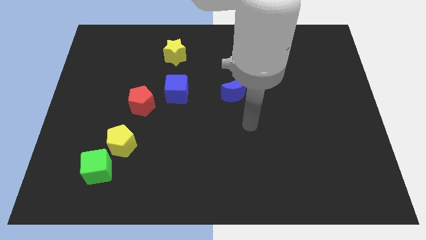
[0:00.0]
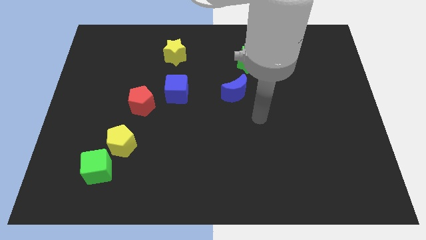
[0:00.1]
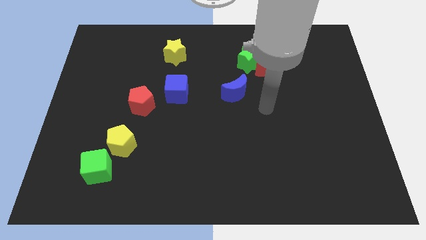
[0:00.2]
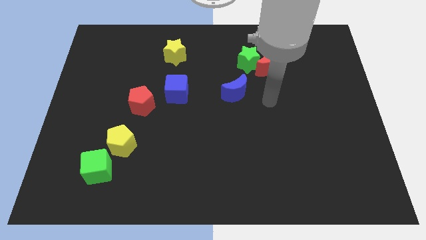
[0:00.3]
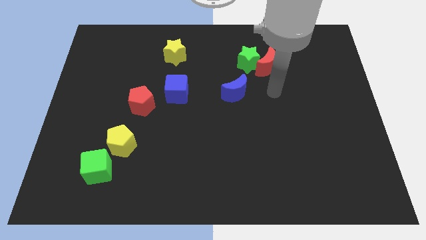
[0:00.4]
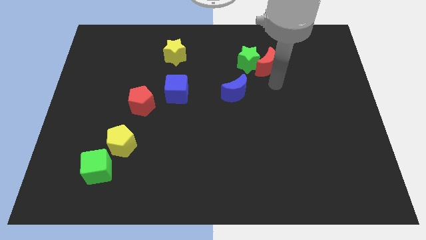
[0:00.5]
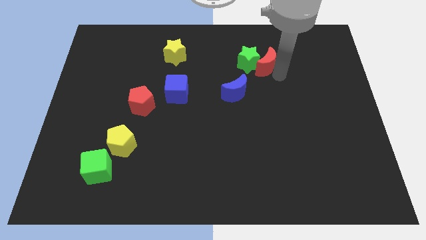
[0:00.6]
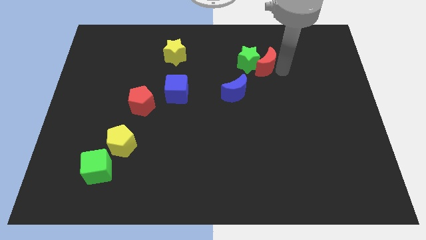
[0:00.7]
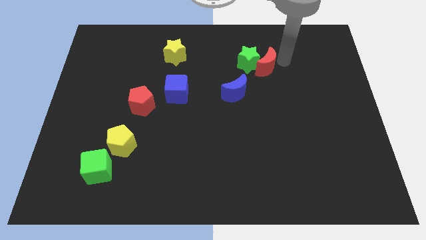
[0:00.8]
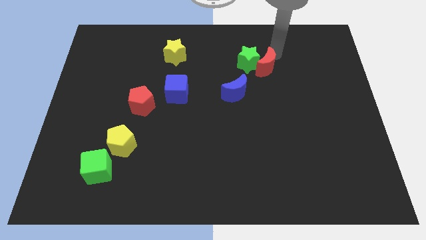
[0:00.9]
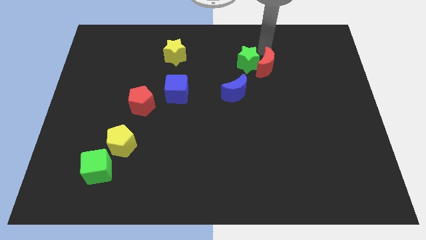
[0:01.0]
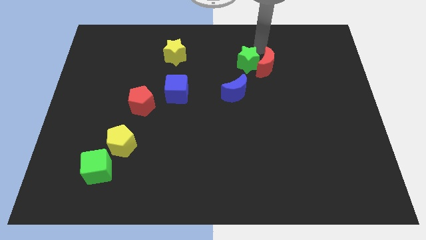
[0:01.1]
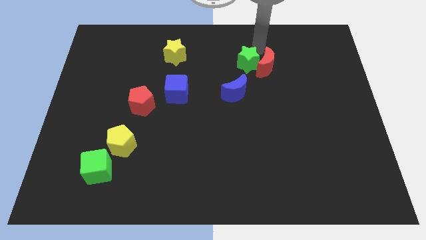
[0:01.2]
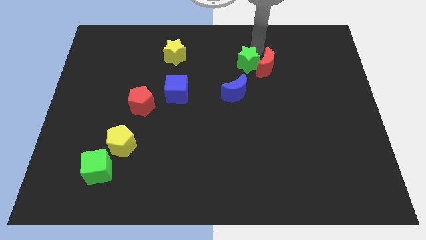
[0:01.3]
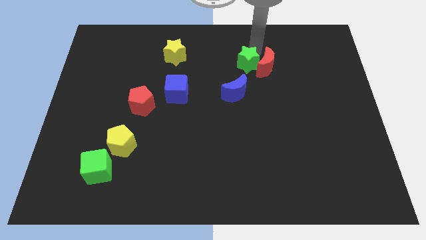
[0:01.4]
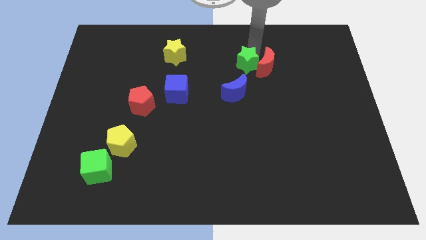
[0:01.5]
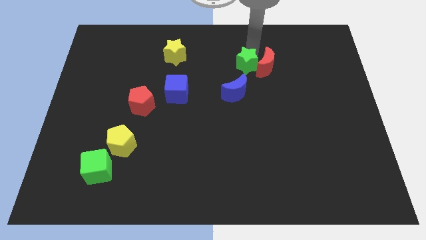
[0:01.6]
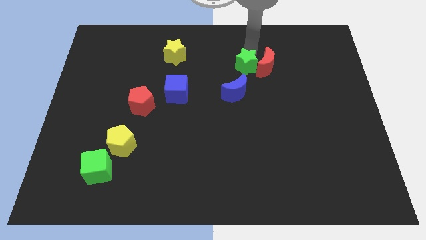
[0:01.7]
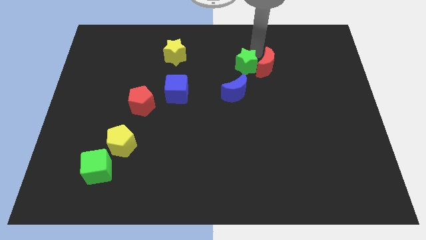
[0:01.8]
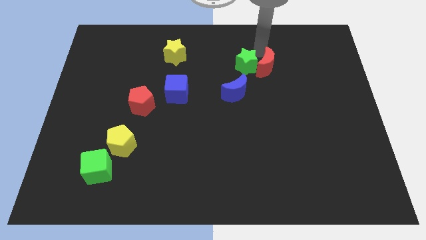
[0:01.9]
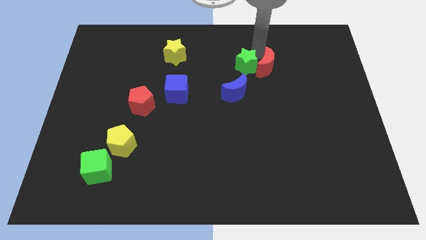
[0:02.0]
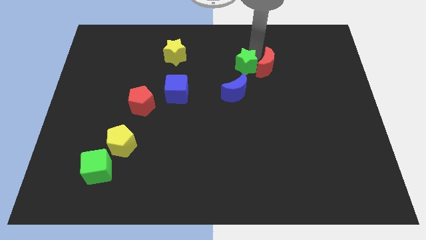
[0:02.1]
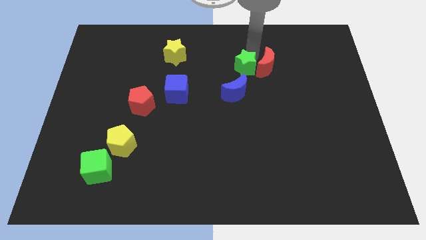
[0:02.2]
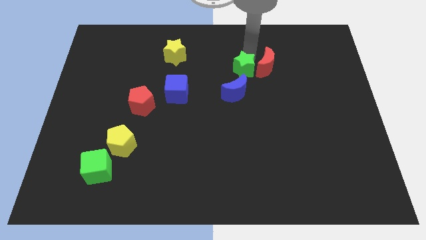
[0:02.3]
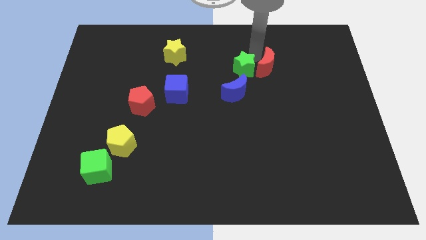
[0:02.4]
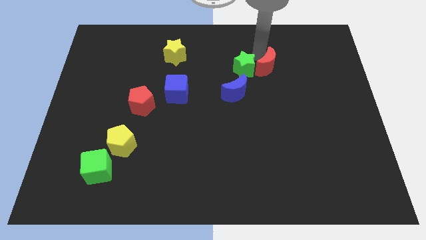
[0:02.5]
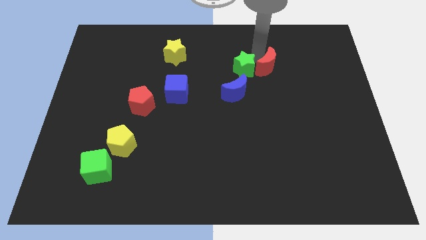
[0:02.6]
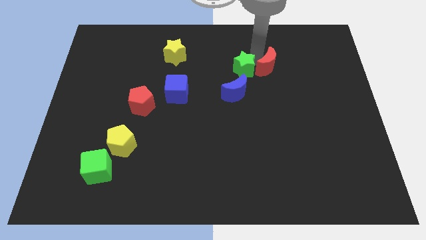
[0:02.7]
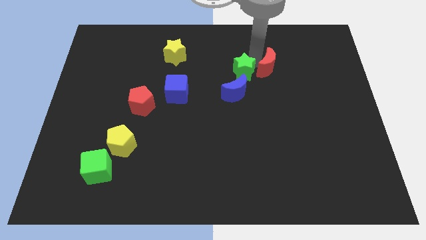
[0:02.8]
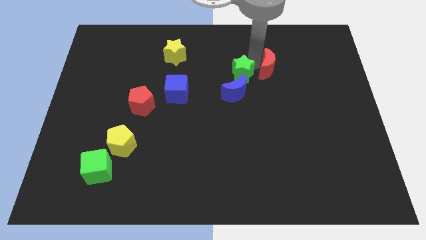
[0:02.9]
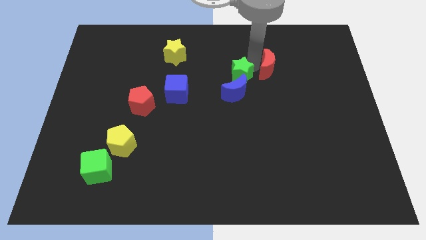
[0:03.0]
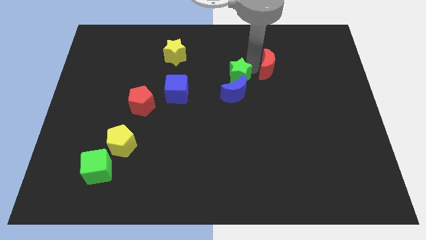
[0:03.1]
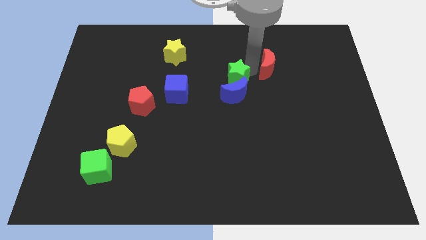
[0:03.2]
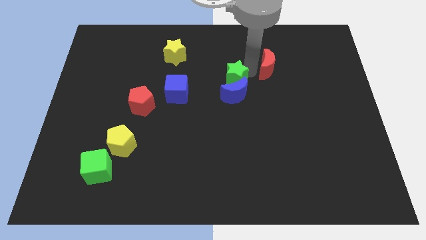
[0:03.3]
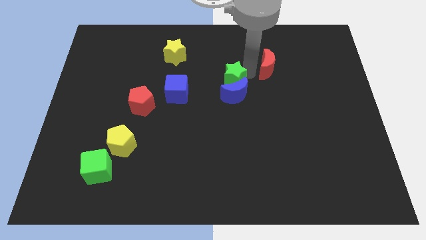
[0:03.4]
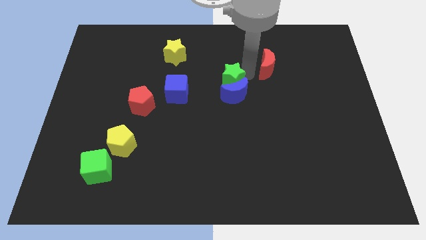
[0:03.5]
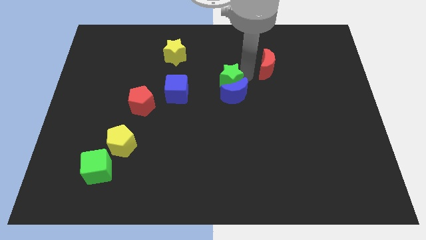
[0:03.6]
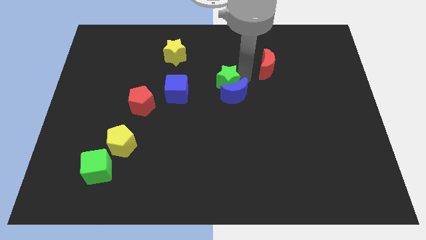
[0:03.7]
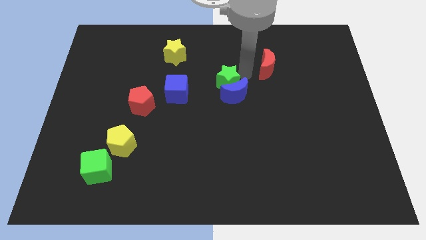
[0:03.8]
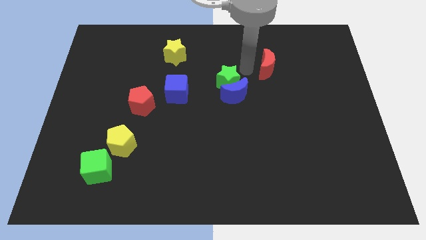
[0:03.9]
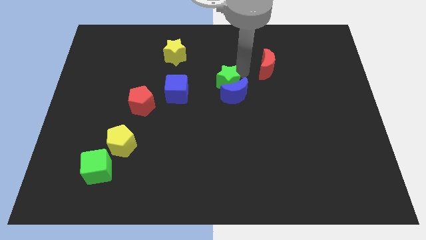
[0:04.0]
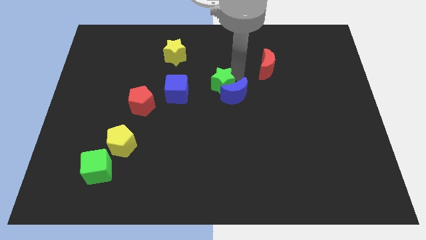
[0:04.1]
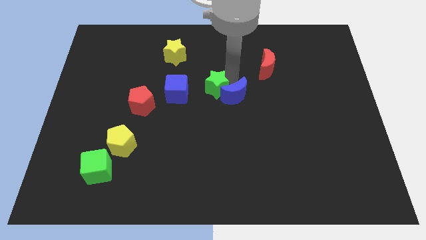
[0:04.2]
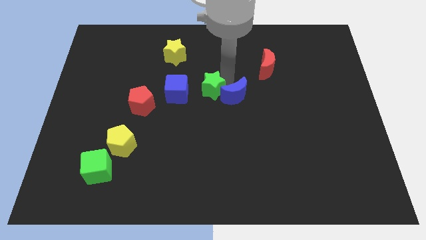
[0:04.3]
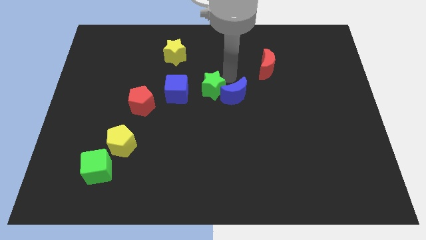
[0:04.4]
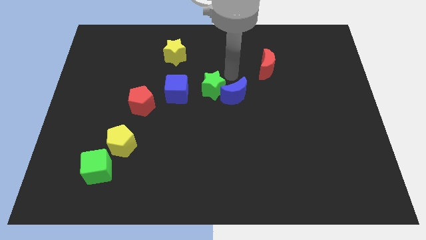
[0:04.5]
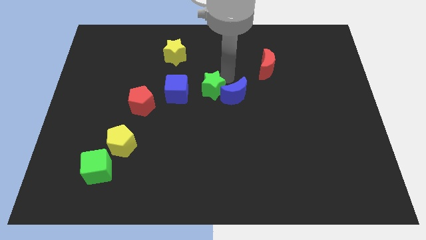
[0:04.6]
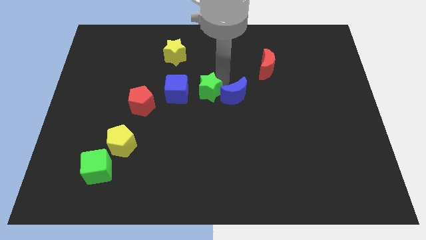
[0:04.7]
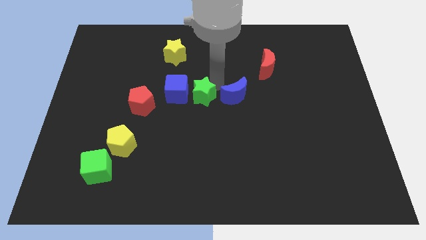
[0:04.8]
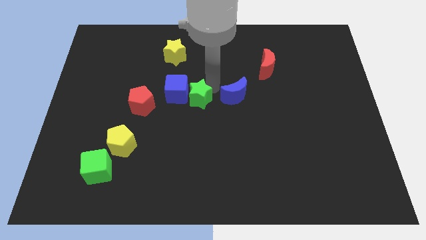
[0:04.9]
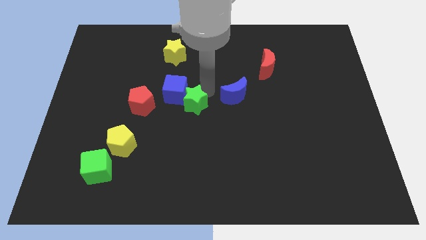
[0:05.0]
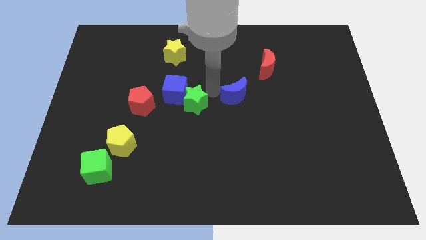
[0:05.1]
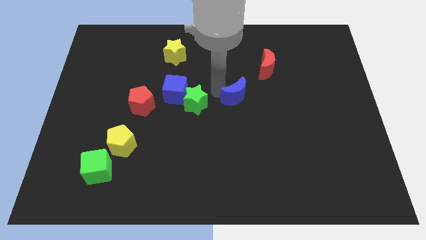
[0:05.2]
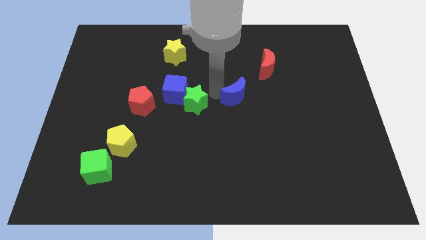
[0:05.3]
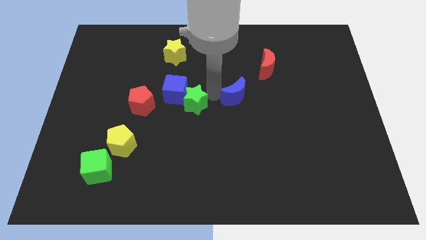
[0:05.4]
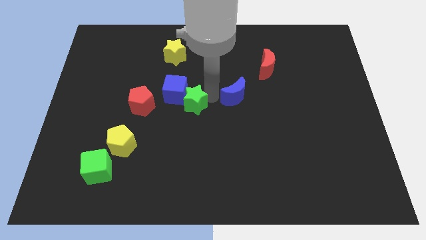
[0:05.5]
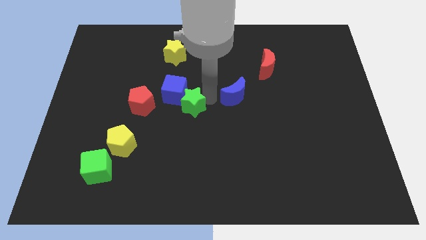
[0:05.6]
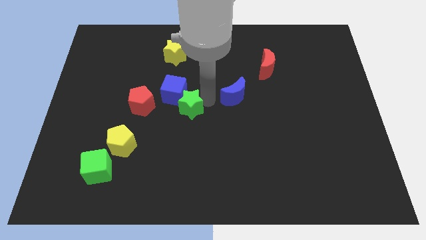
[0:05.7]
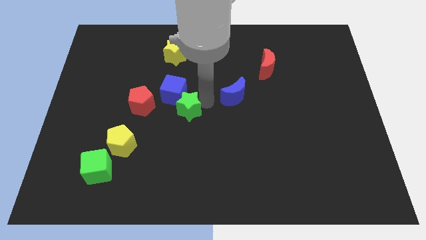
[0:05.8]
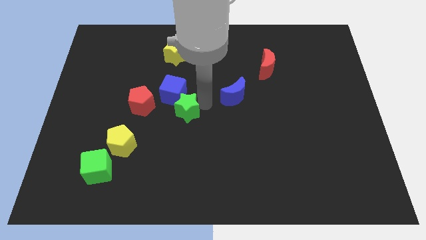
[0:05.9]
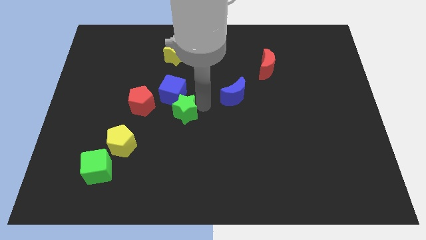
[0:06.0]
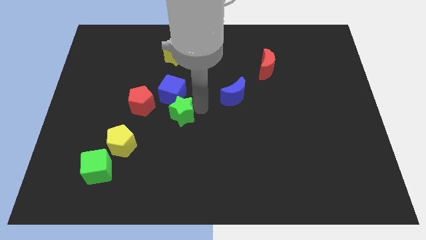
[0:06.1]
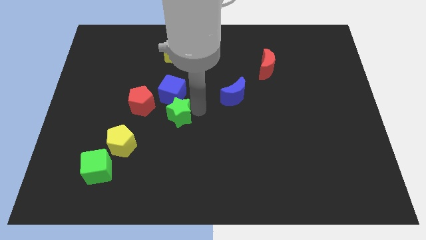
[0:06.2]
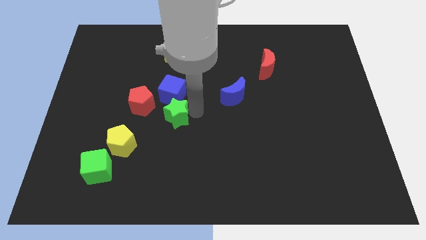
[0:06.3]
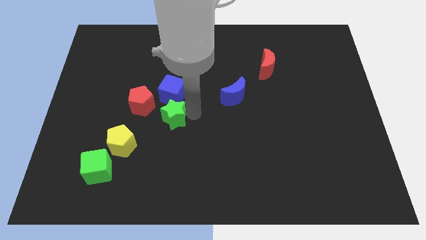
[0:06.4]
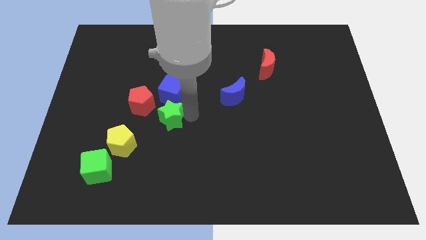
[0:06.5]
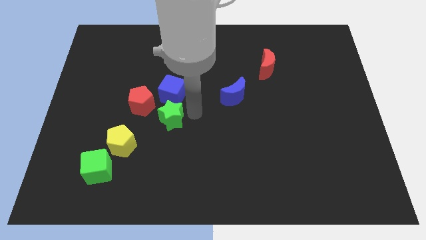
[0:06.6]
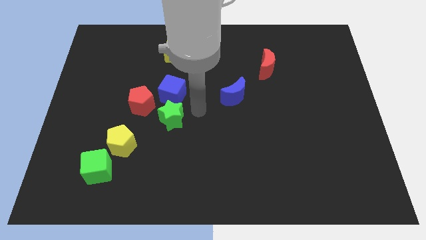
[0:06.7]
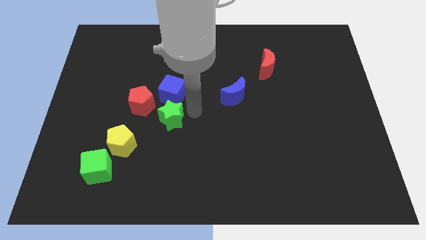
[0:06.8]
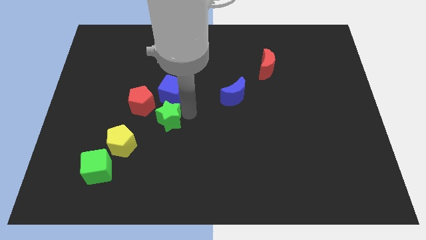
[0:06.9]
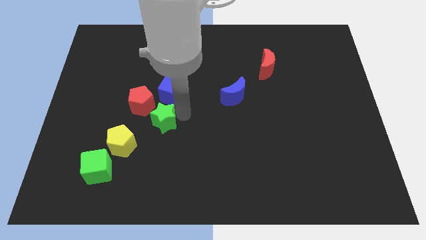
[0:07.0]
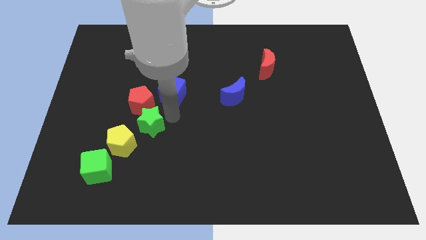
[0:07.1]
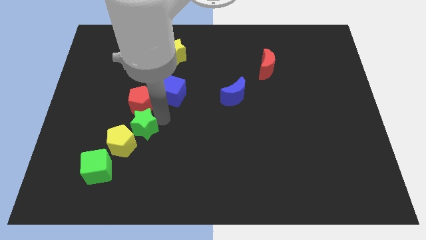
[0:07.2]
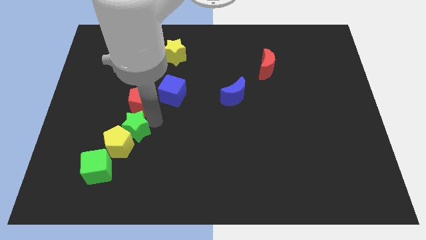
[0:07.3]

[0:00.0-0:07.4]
slide the green star towards the yellow pentagon
